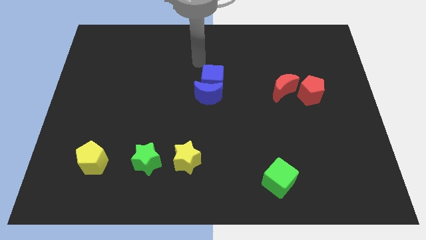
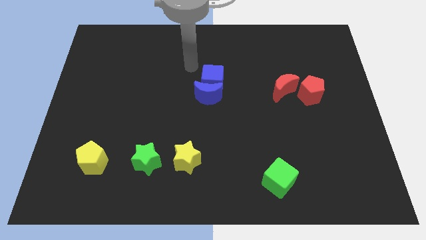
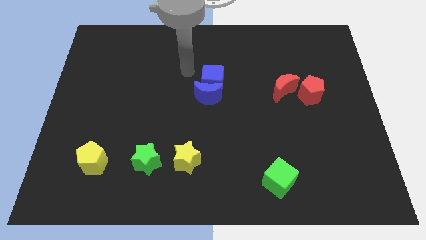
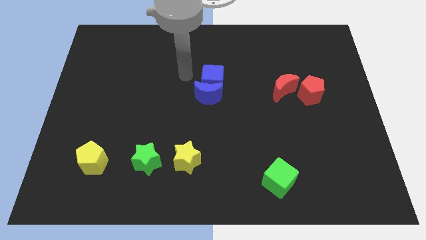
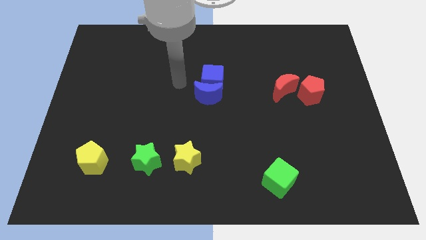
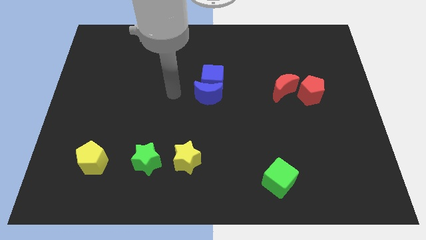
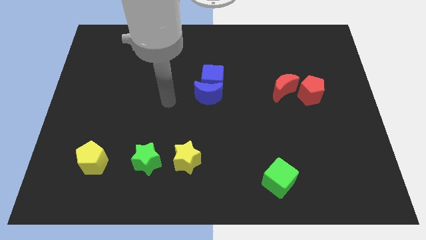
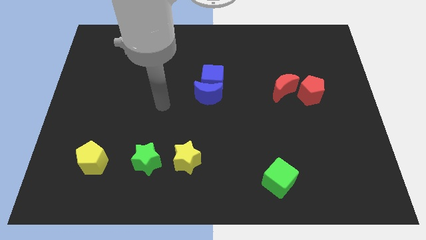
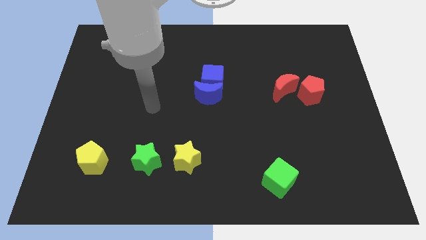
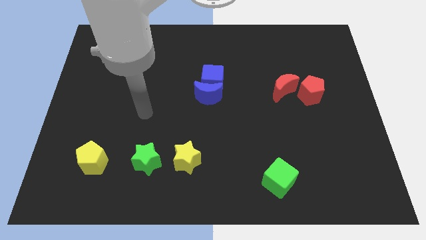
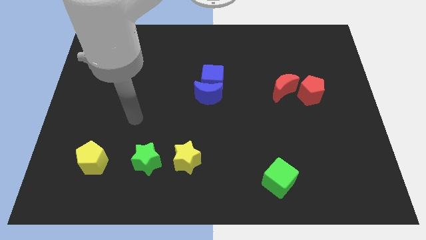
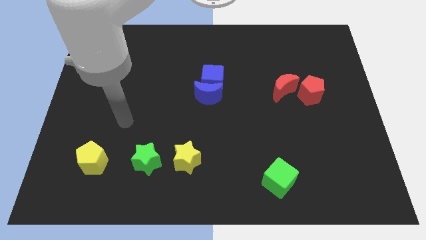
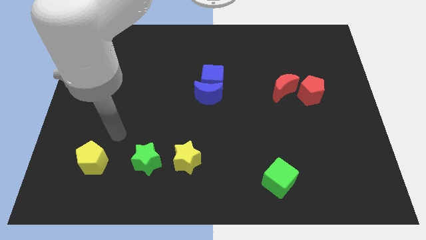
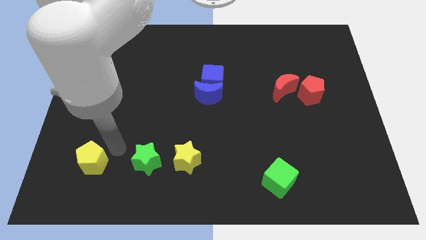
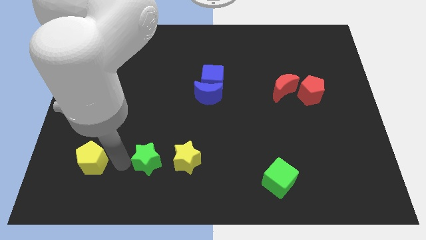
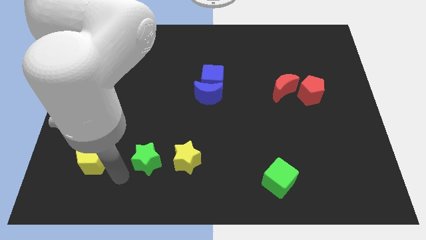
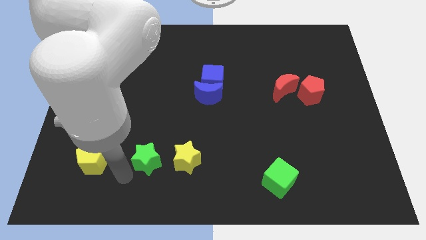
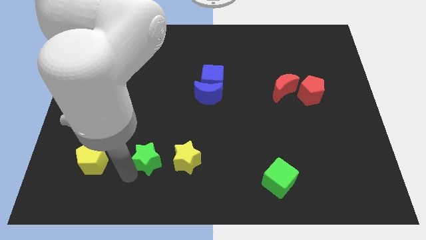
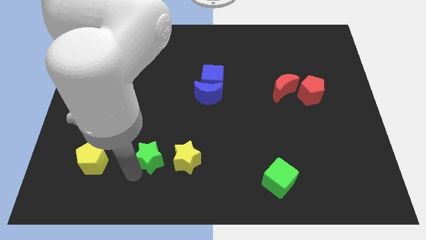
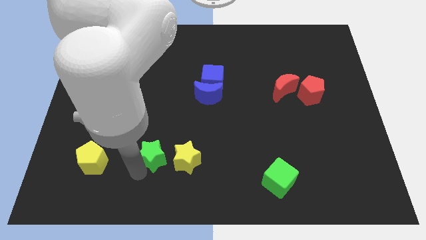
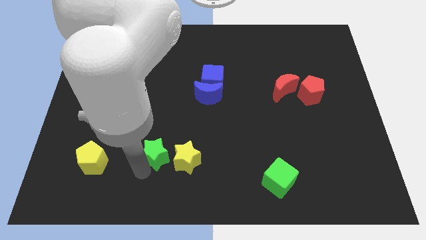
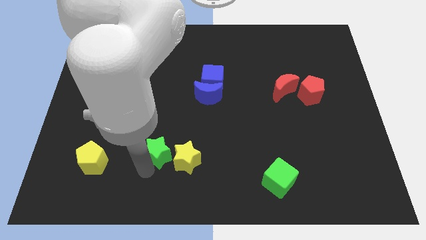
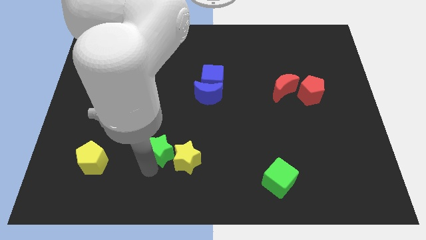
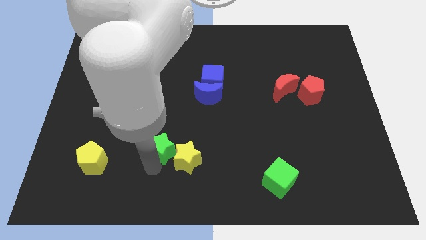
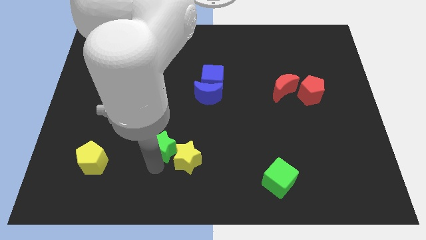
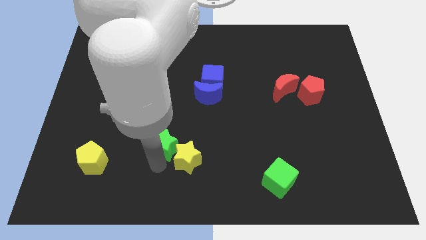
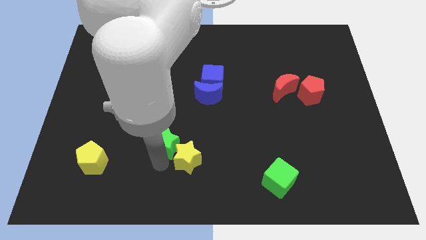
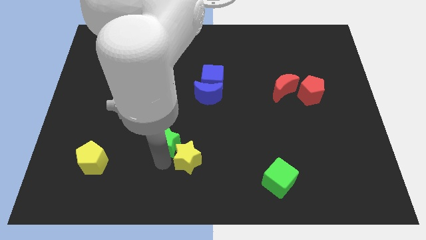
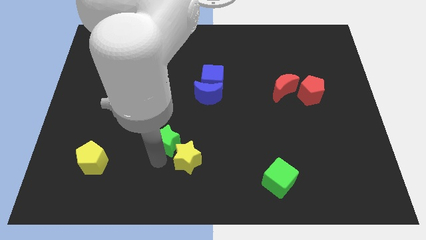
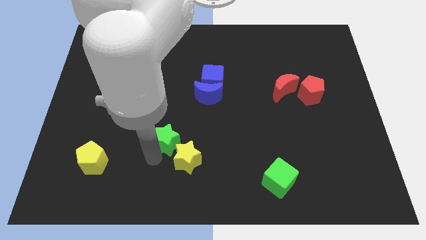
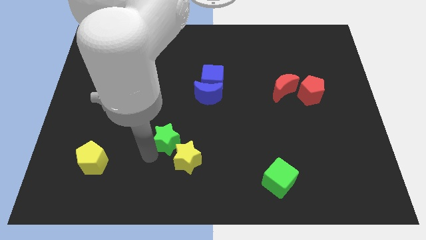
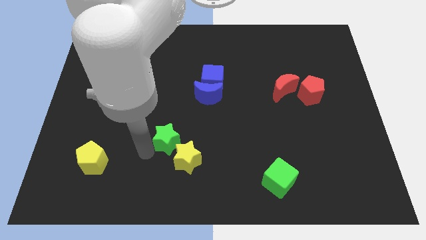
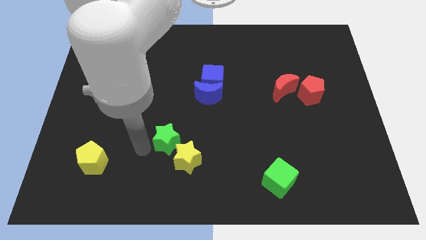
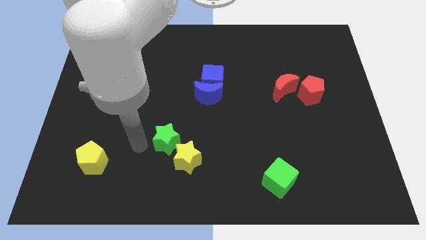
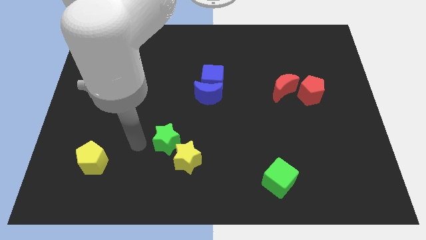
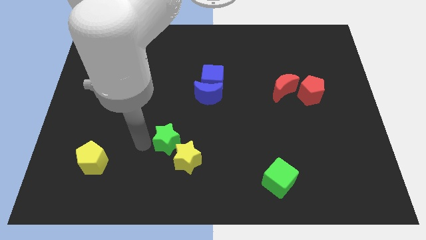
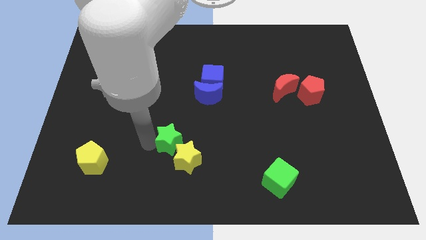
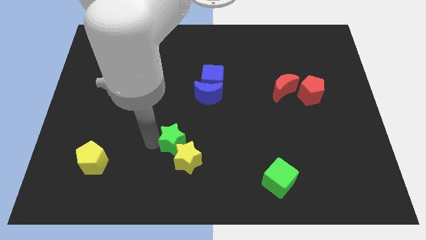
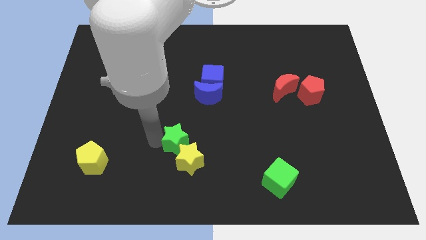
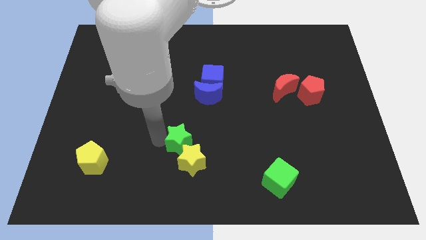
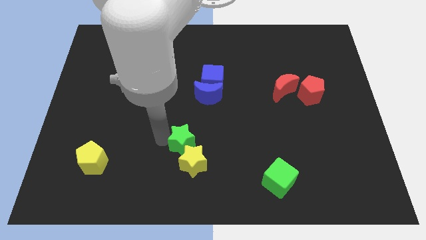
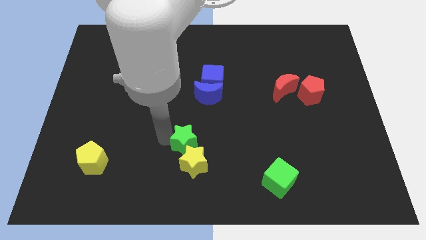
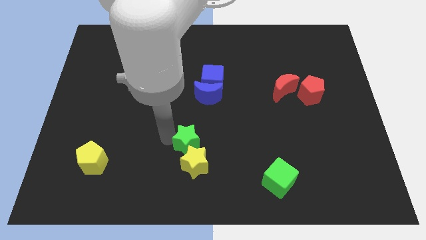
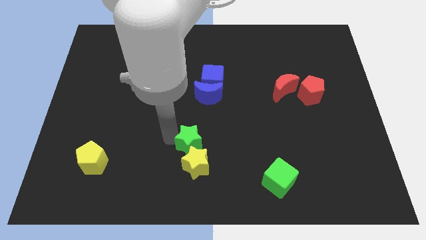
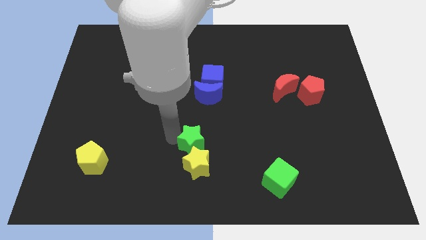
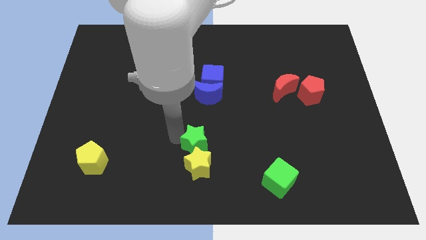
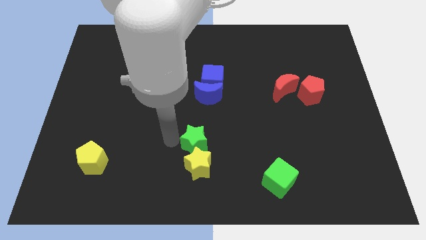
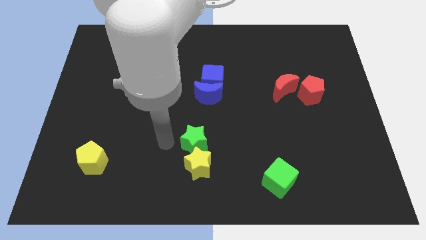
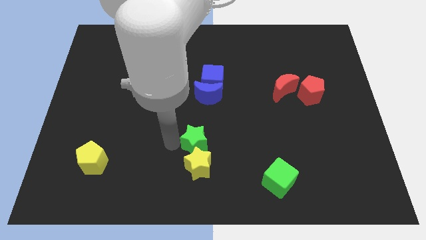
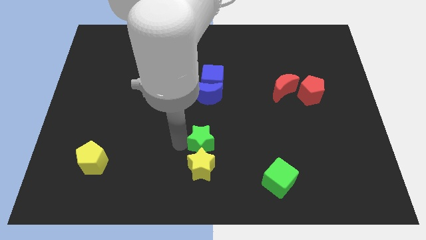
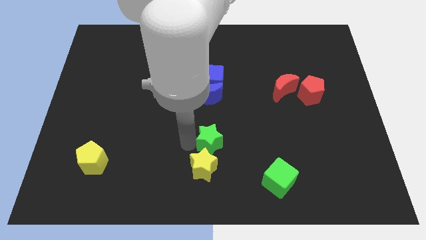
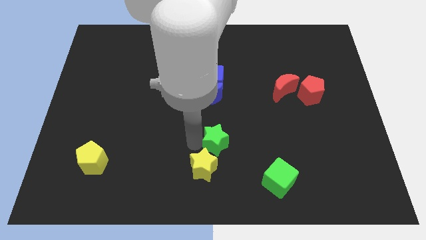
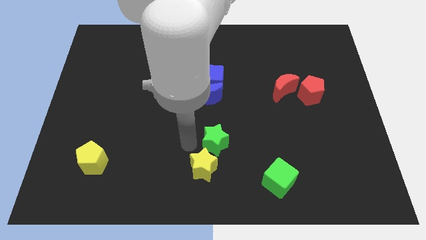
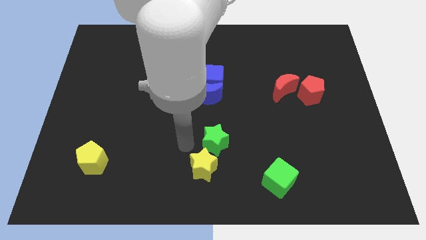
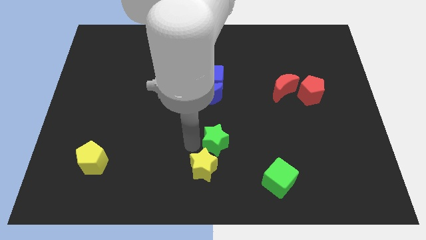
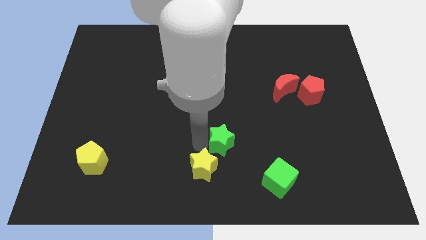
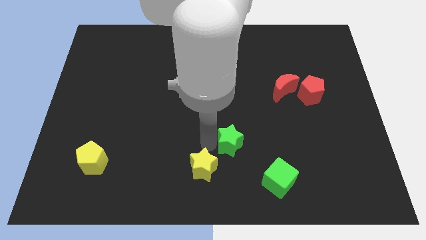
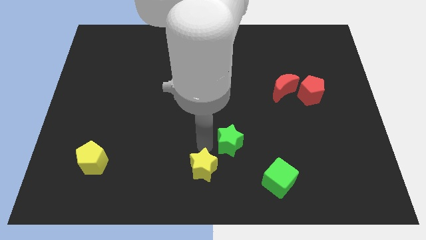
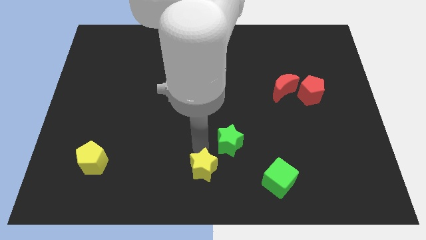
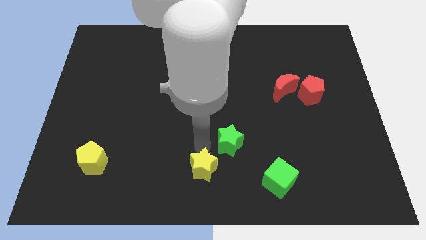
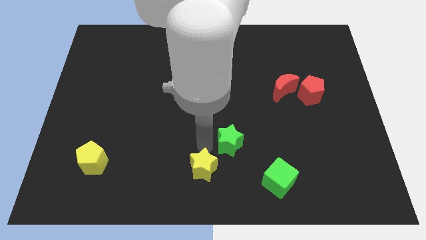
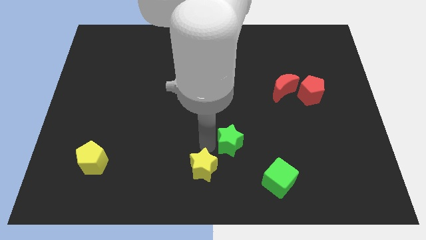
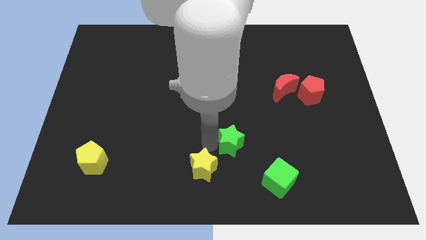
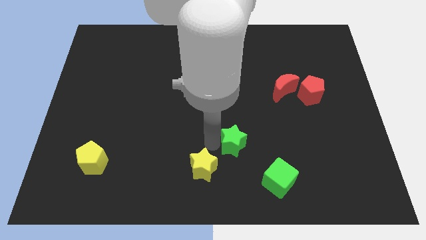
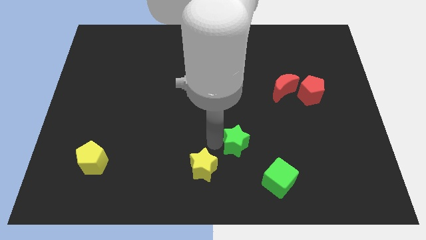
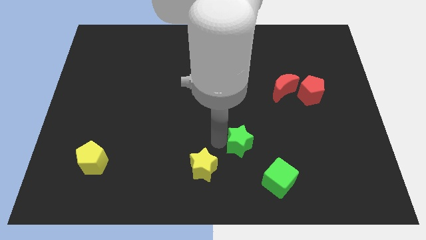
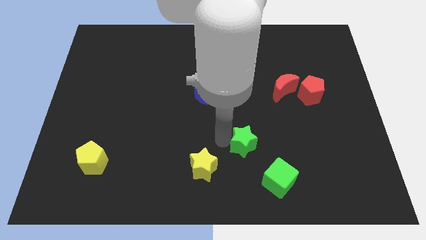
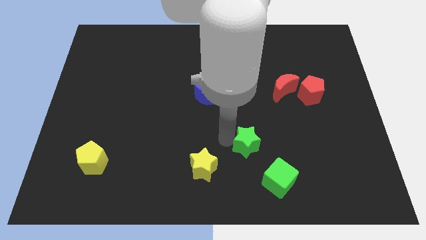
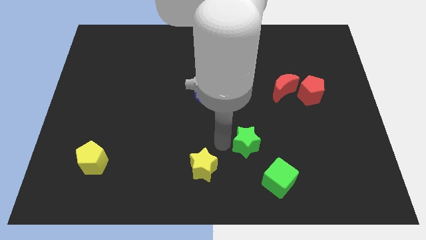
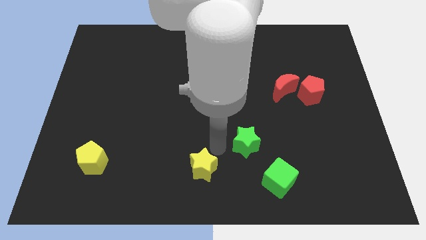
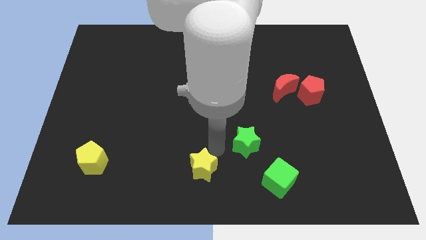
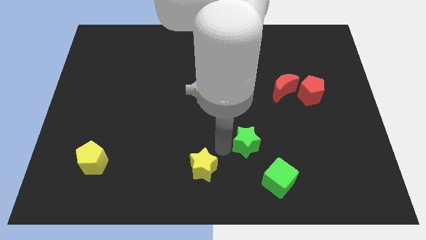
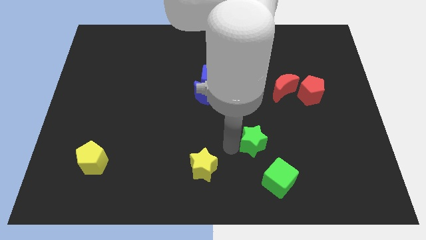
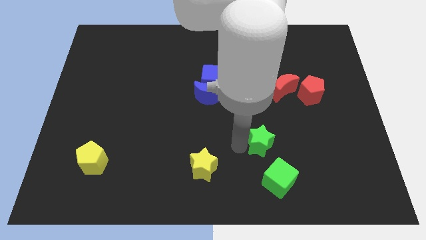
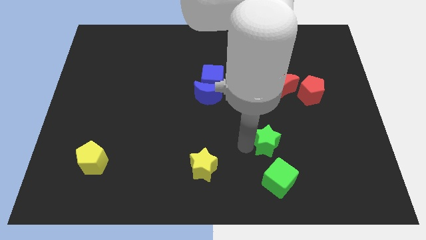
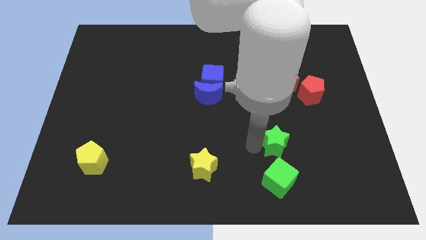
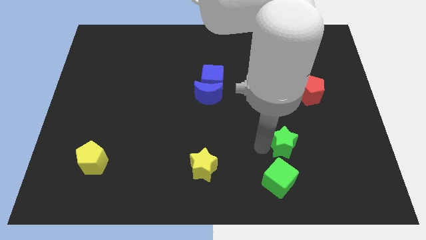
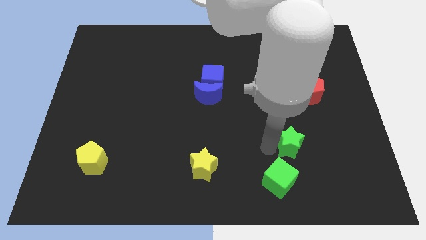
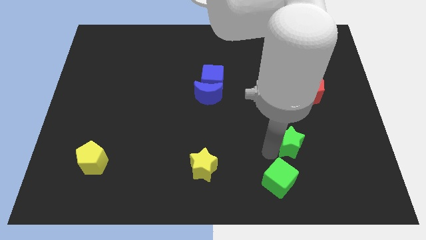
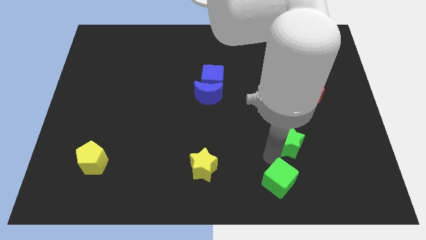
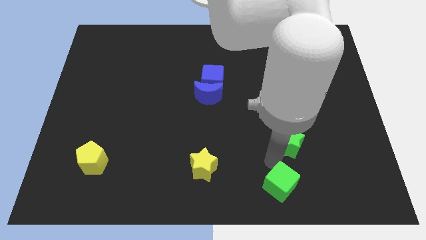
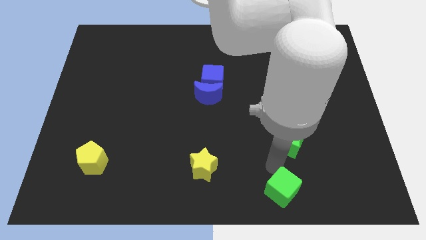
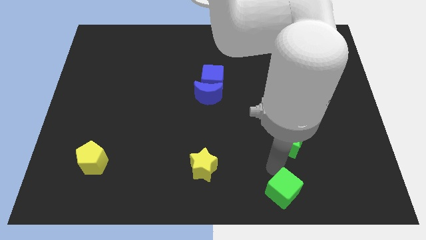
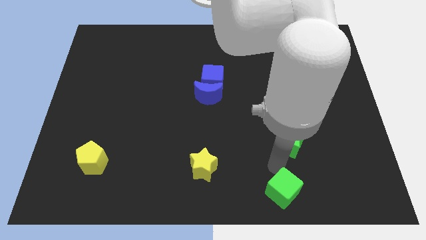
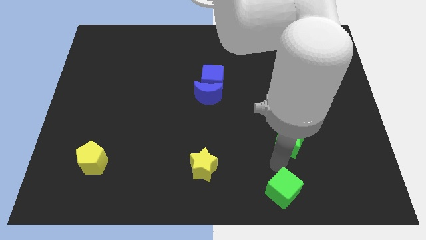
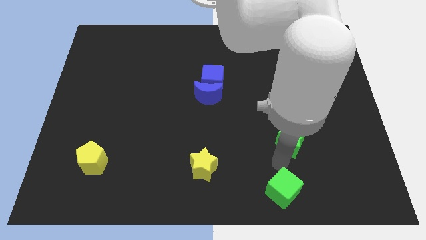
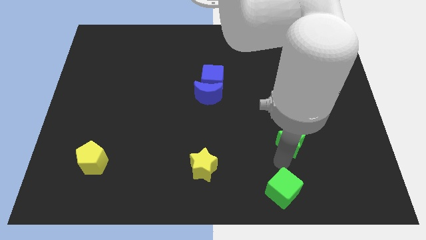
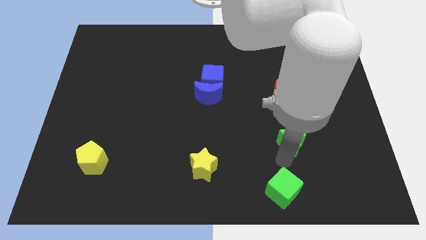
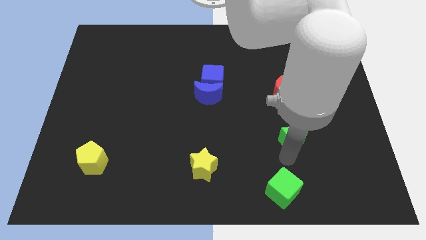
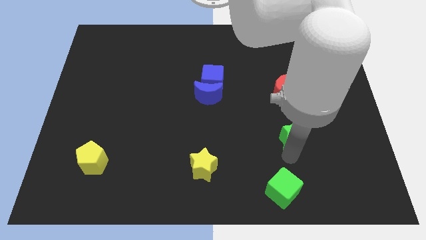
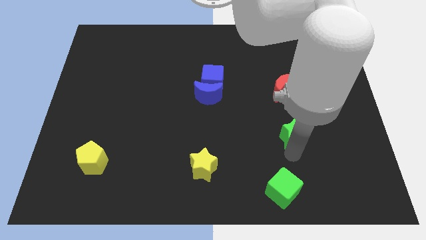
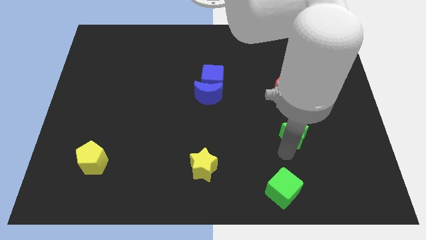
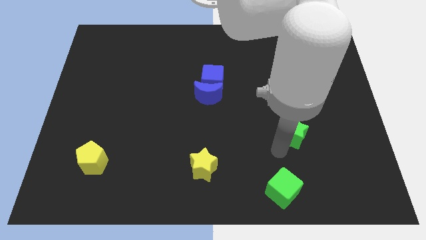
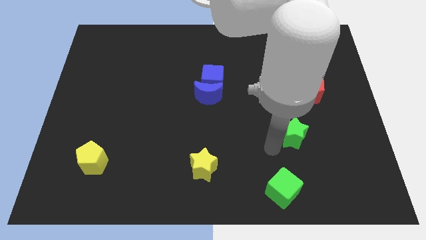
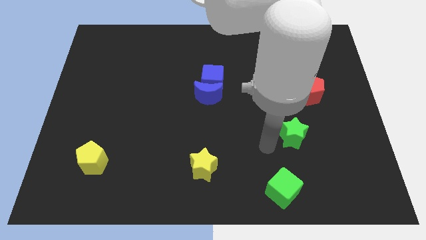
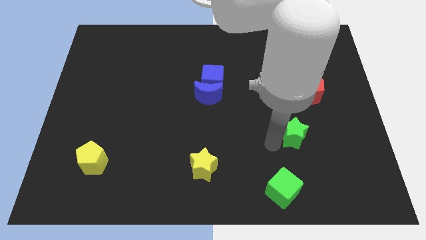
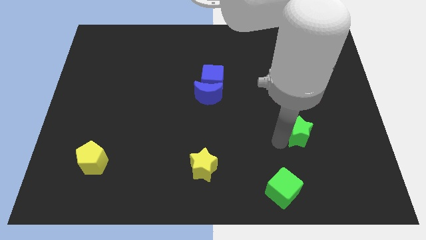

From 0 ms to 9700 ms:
push the green star below the red pentagon
